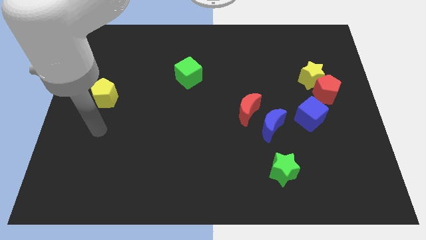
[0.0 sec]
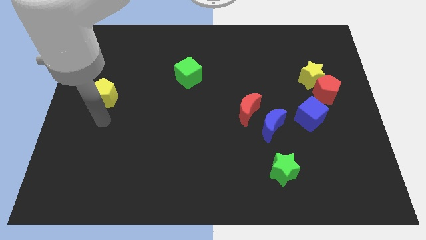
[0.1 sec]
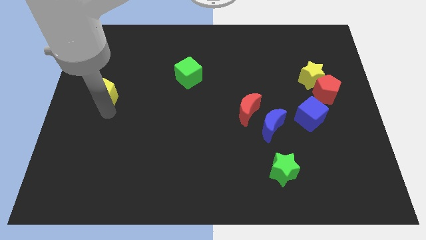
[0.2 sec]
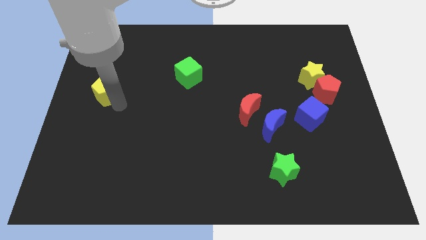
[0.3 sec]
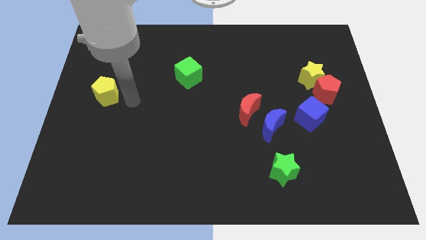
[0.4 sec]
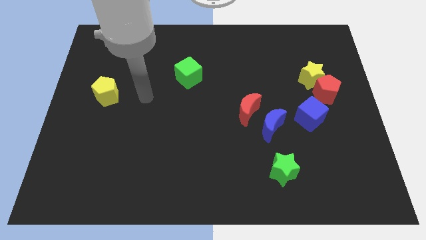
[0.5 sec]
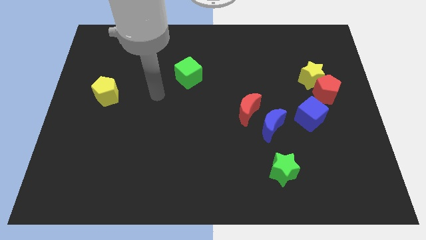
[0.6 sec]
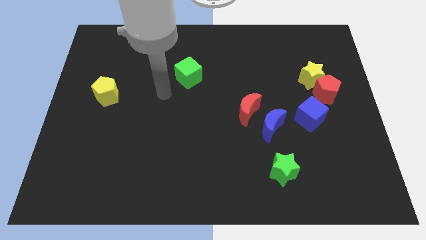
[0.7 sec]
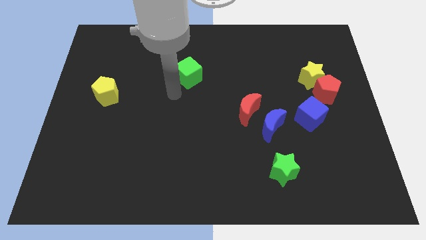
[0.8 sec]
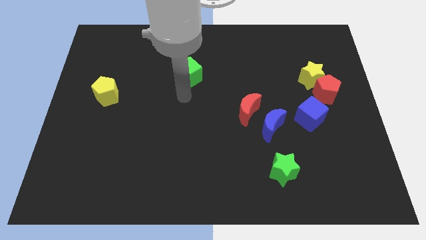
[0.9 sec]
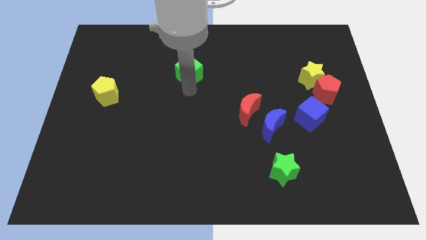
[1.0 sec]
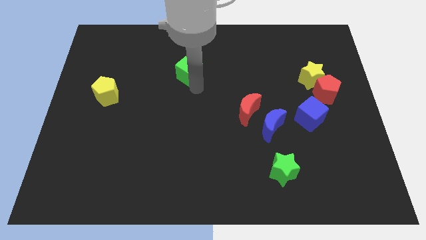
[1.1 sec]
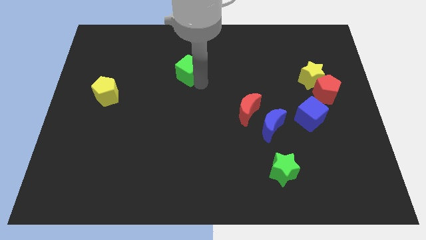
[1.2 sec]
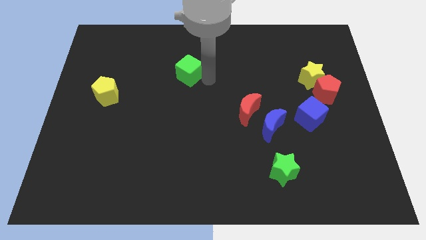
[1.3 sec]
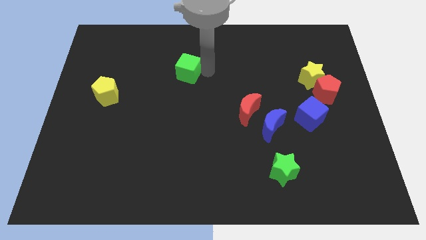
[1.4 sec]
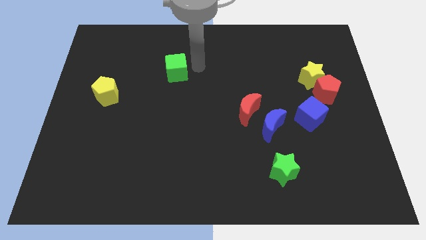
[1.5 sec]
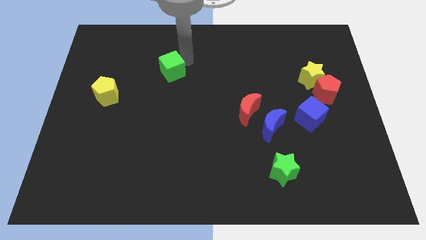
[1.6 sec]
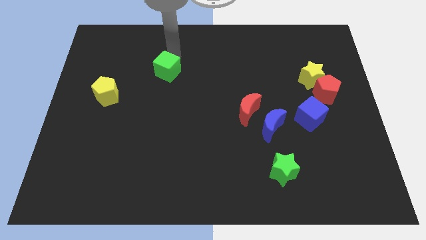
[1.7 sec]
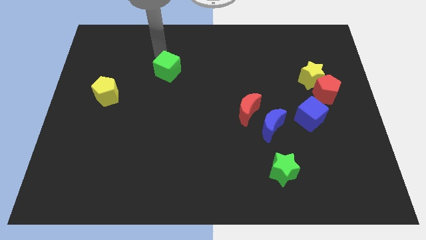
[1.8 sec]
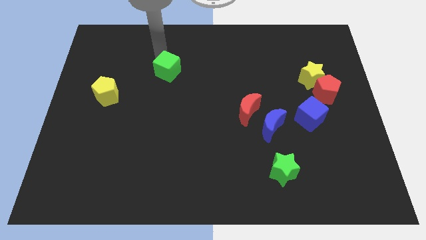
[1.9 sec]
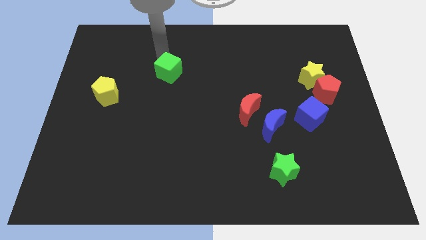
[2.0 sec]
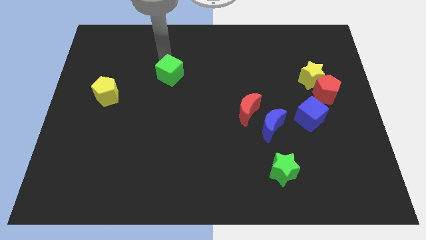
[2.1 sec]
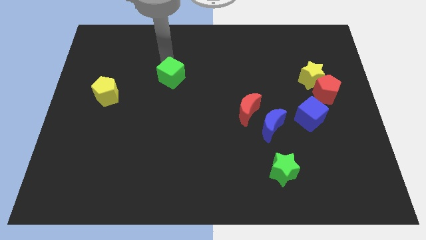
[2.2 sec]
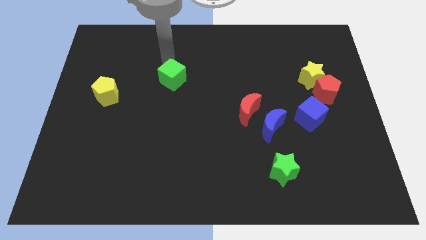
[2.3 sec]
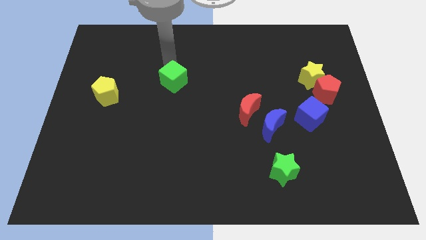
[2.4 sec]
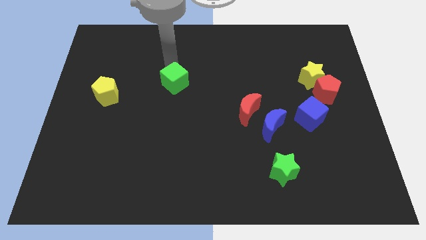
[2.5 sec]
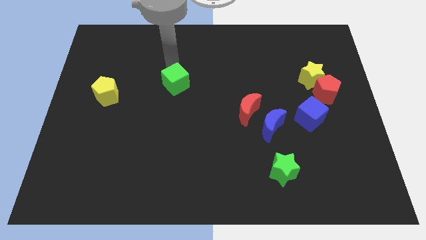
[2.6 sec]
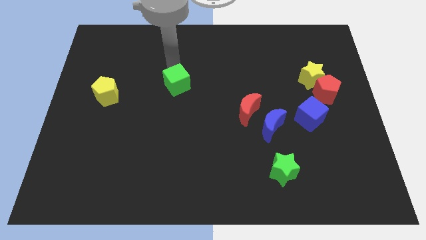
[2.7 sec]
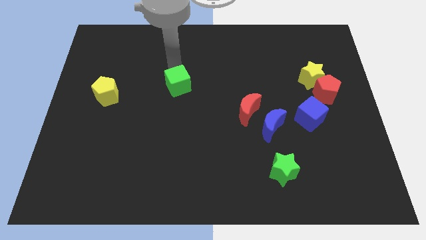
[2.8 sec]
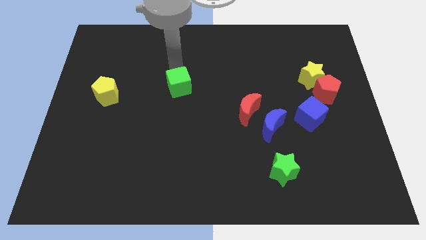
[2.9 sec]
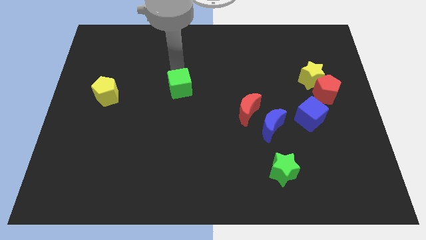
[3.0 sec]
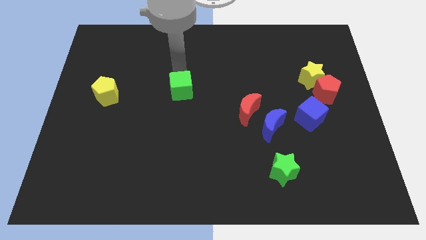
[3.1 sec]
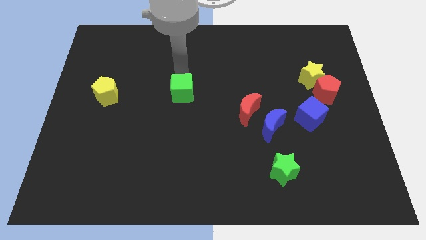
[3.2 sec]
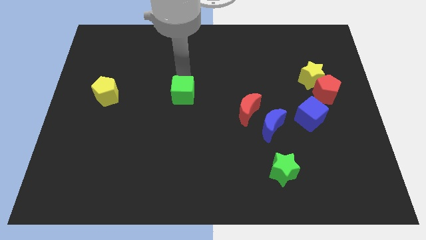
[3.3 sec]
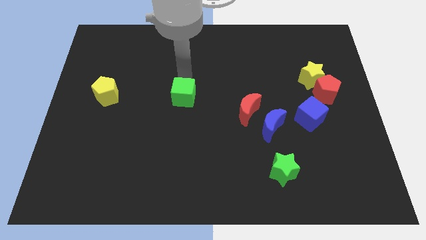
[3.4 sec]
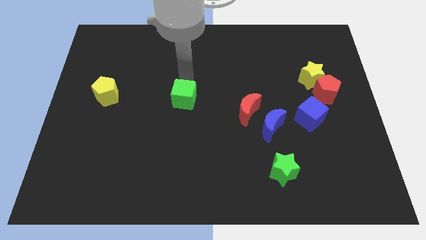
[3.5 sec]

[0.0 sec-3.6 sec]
slide the green cube slightly down

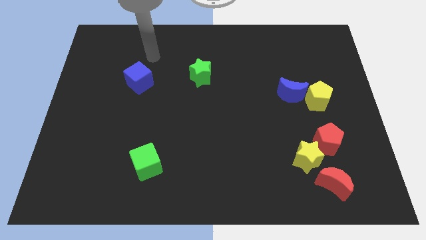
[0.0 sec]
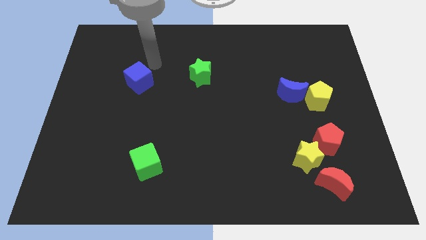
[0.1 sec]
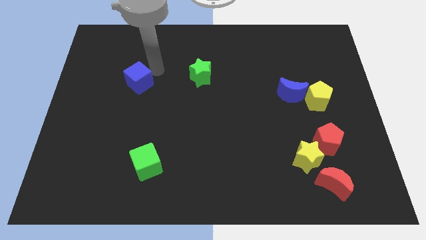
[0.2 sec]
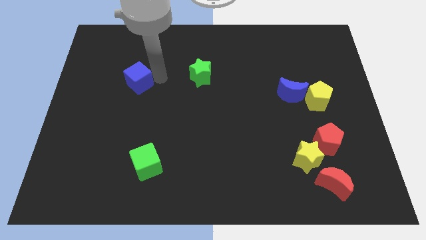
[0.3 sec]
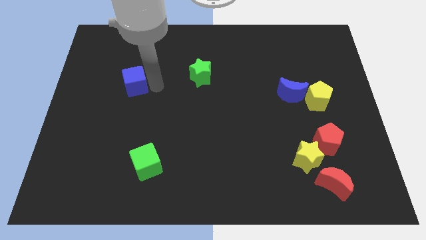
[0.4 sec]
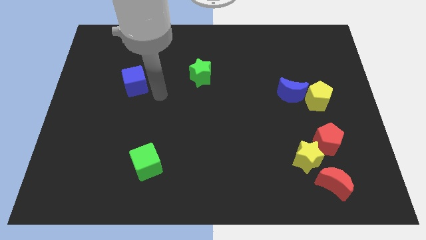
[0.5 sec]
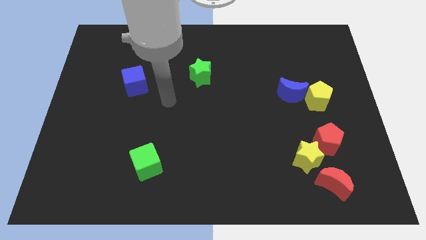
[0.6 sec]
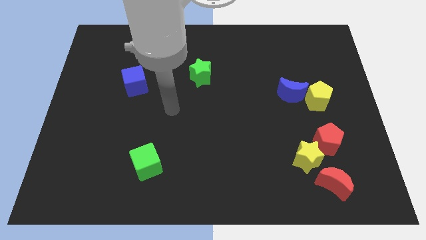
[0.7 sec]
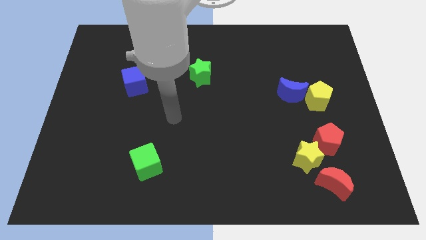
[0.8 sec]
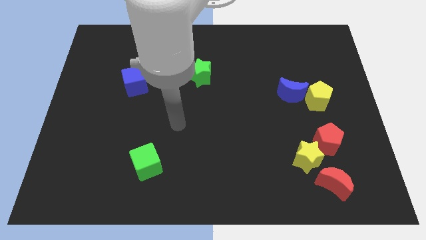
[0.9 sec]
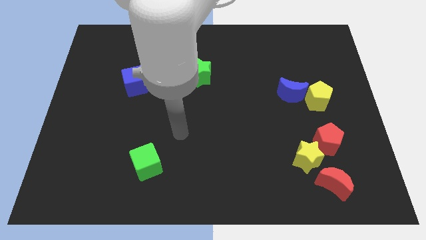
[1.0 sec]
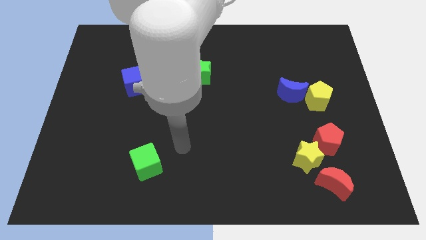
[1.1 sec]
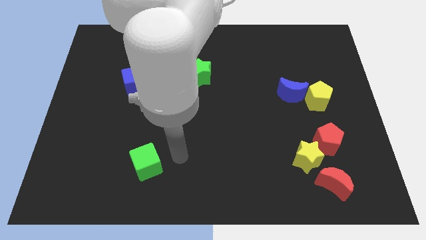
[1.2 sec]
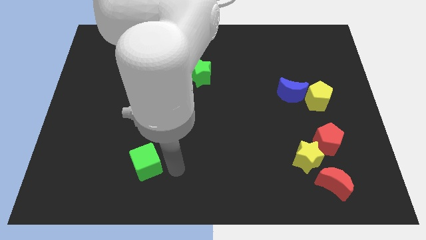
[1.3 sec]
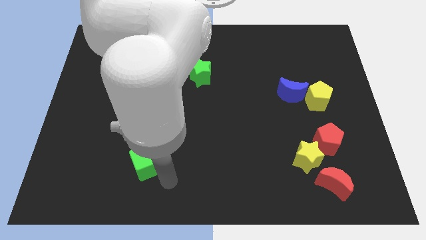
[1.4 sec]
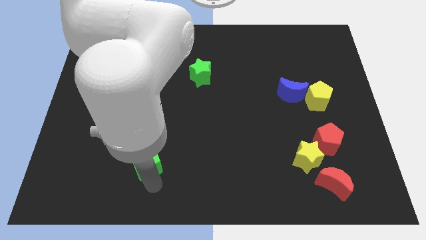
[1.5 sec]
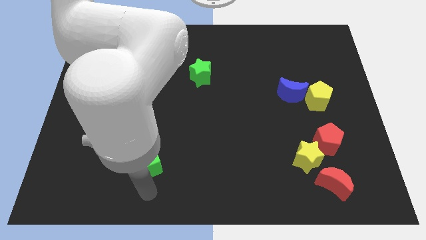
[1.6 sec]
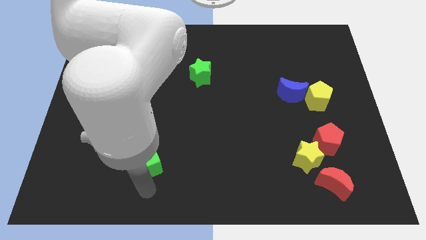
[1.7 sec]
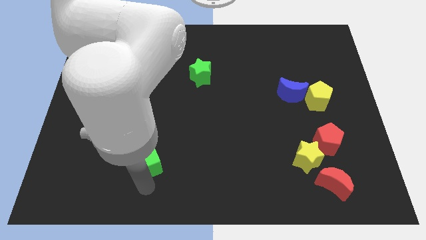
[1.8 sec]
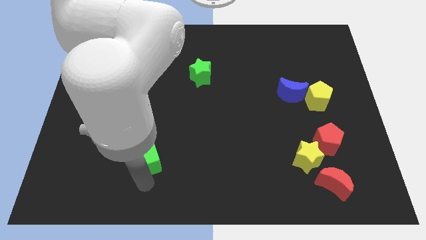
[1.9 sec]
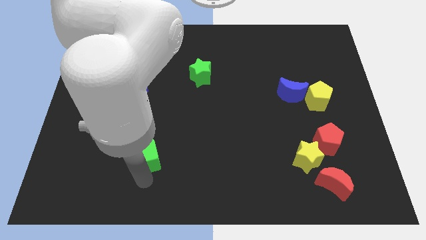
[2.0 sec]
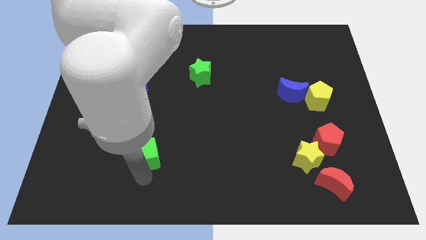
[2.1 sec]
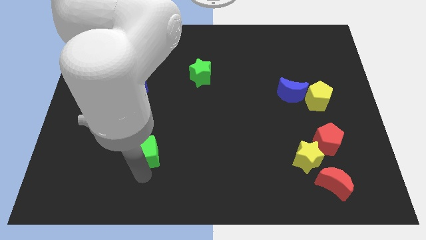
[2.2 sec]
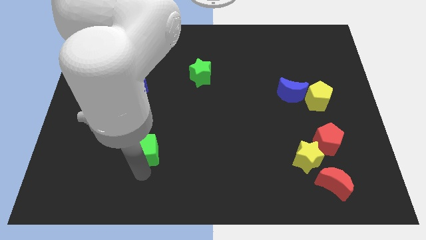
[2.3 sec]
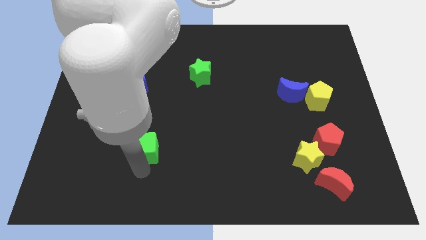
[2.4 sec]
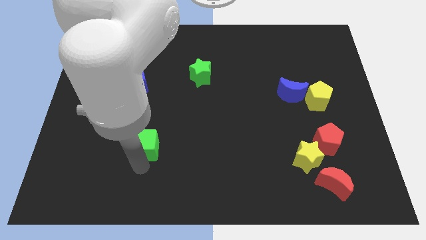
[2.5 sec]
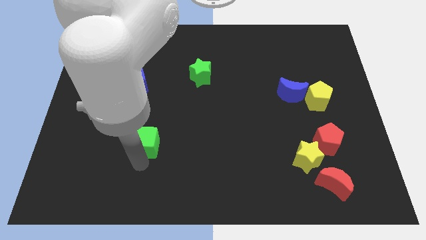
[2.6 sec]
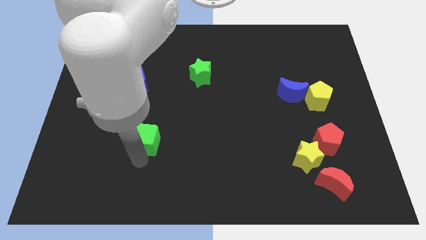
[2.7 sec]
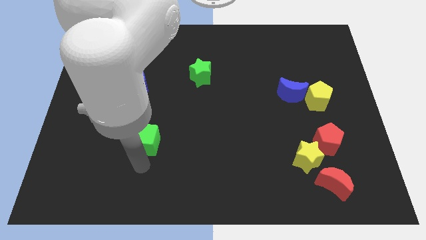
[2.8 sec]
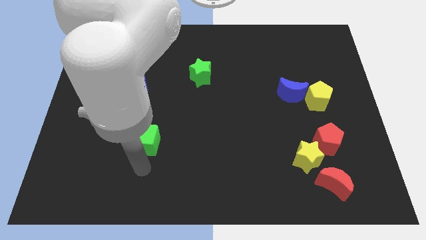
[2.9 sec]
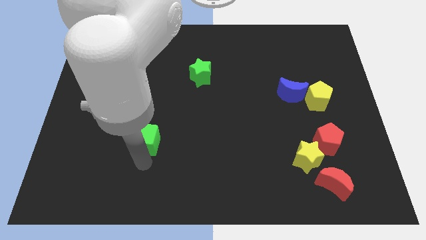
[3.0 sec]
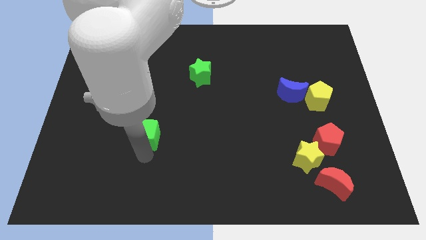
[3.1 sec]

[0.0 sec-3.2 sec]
move the green cube up a little bit

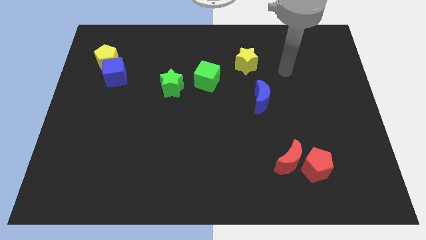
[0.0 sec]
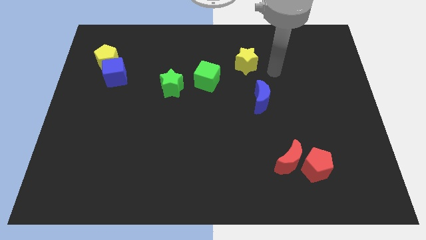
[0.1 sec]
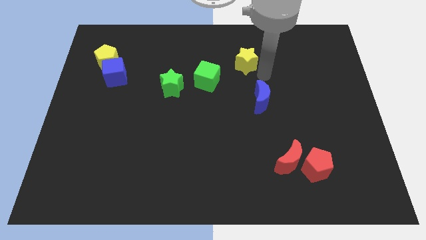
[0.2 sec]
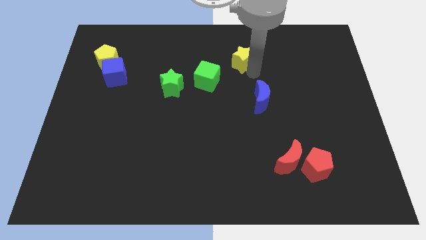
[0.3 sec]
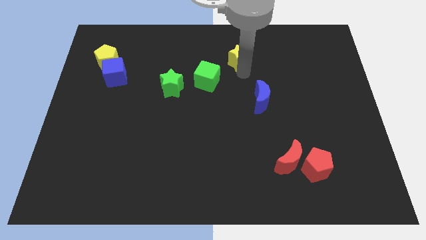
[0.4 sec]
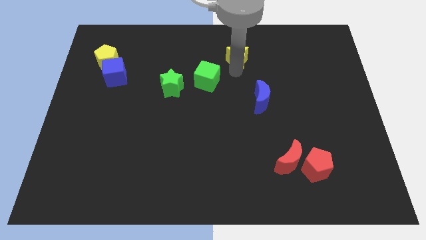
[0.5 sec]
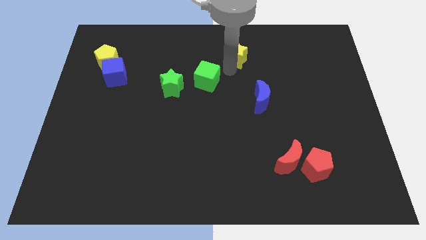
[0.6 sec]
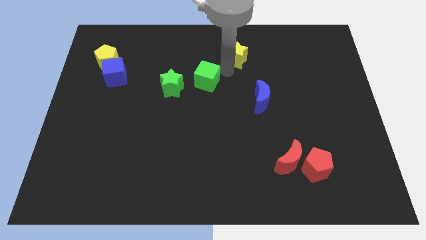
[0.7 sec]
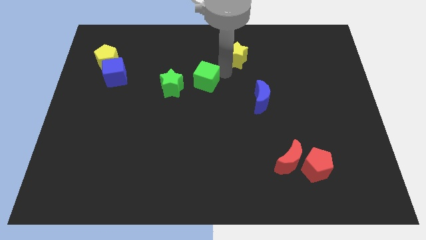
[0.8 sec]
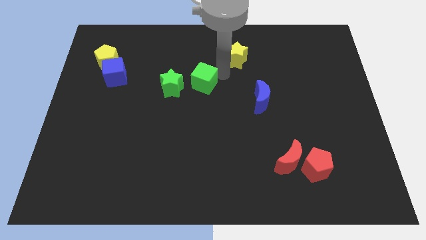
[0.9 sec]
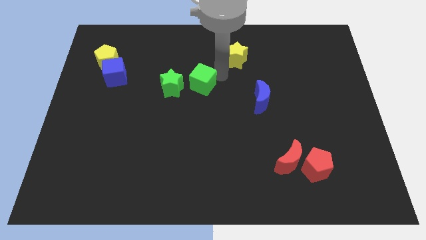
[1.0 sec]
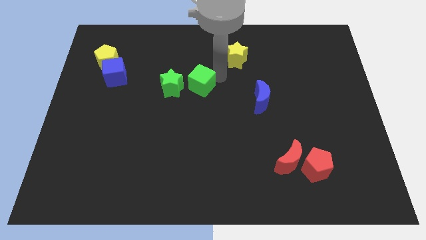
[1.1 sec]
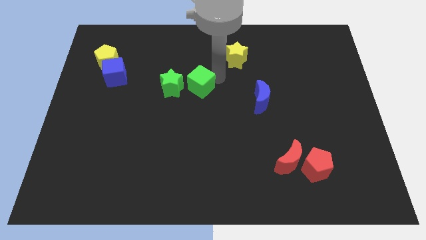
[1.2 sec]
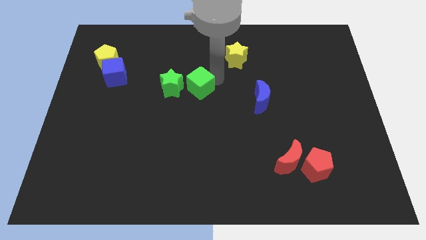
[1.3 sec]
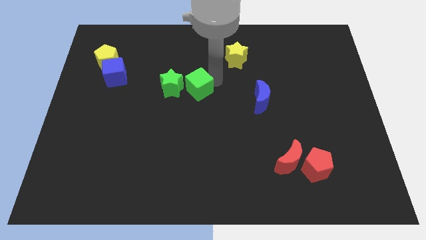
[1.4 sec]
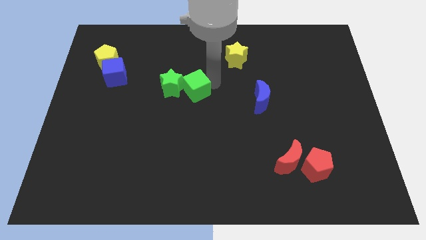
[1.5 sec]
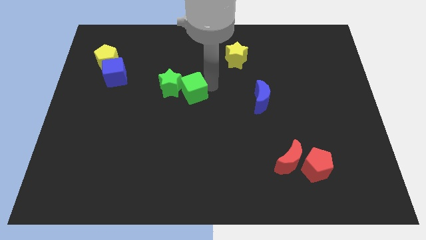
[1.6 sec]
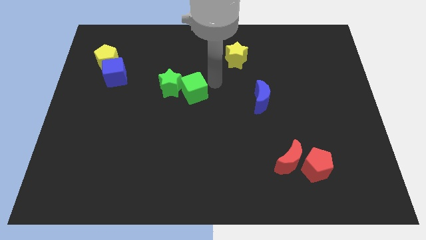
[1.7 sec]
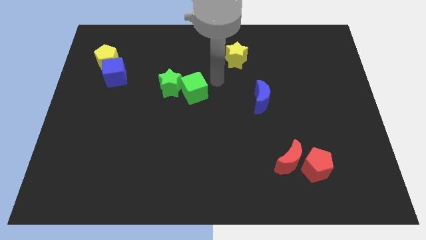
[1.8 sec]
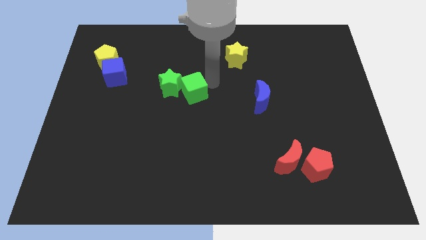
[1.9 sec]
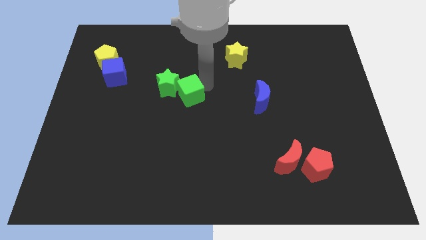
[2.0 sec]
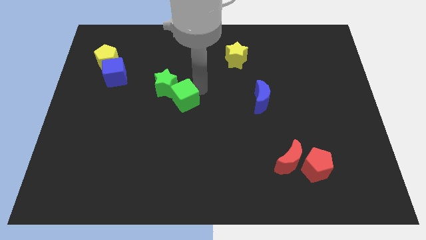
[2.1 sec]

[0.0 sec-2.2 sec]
slightly slide the green cube downwards and to the left diagonally
